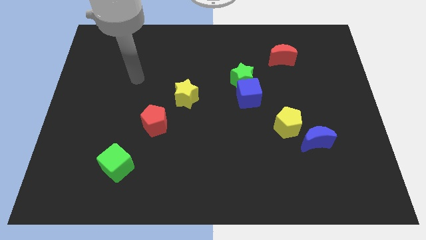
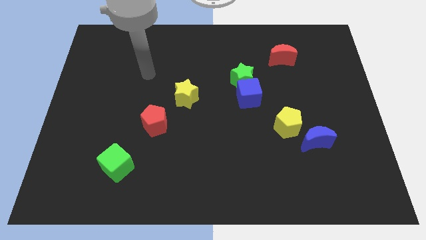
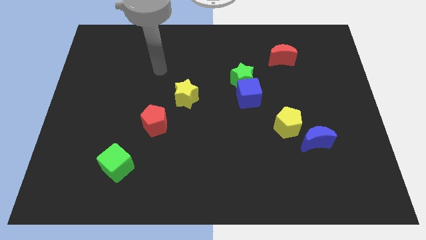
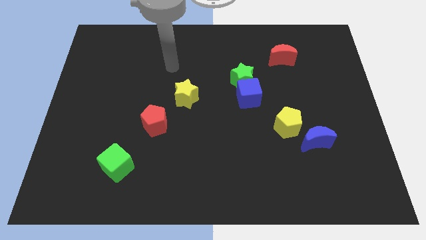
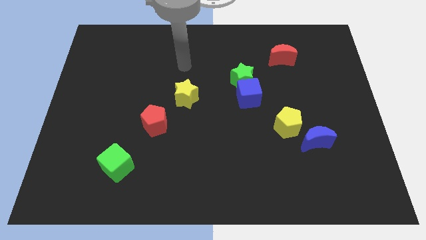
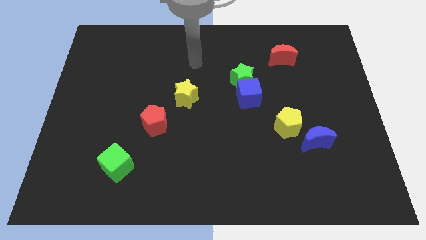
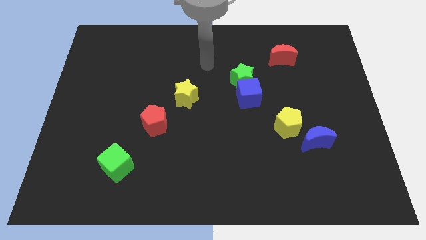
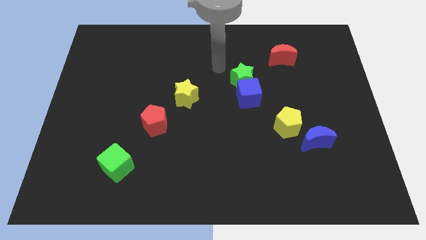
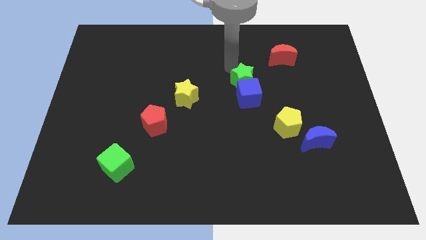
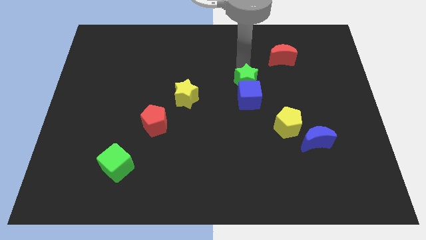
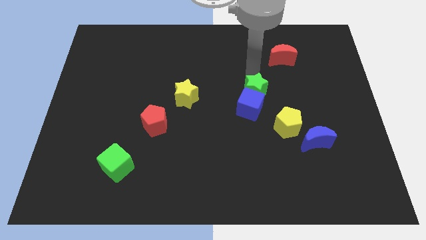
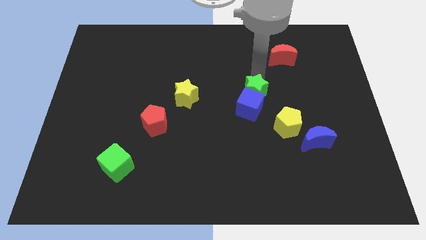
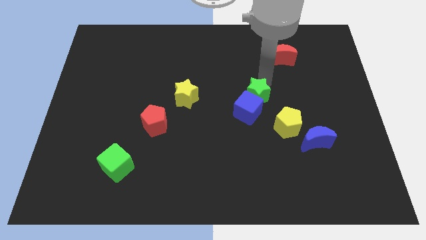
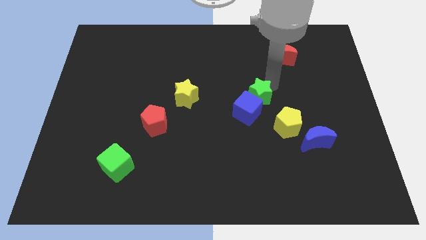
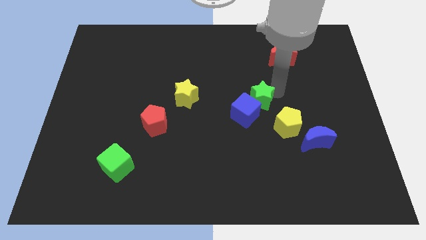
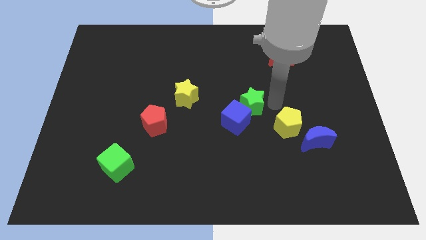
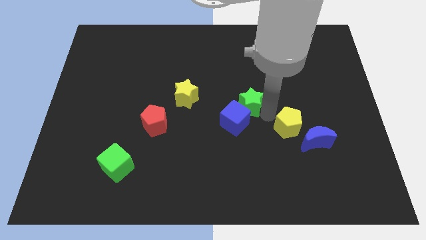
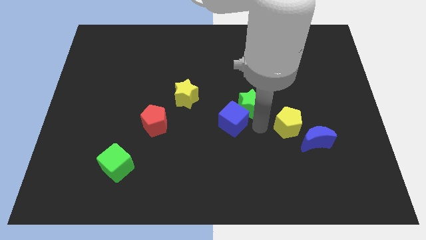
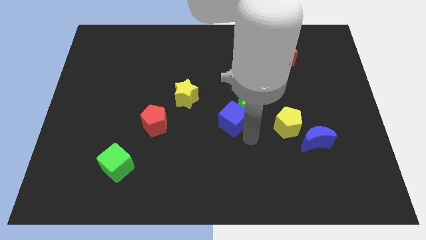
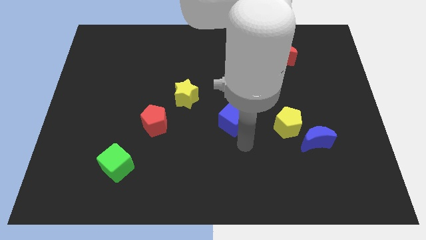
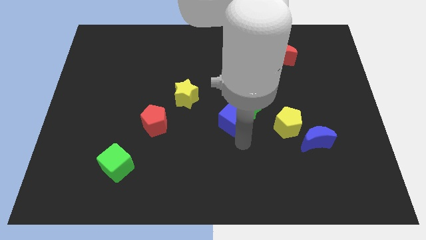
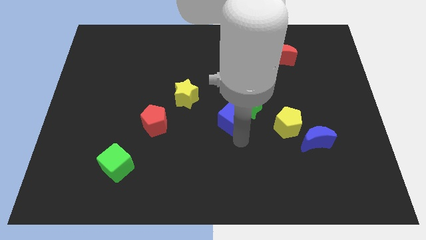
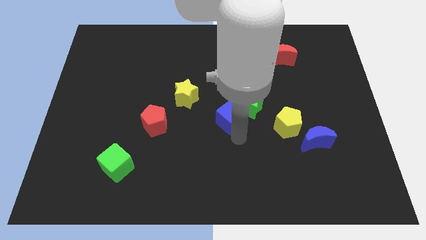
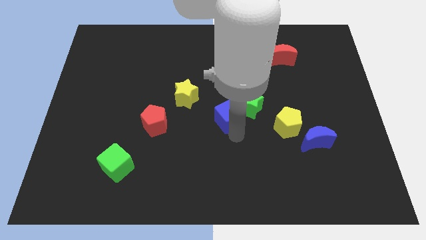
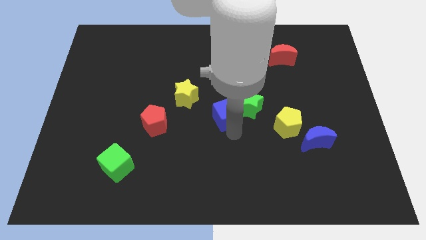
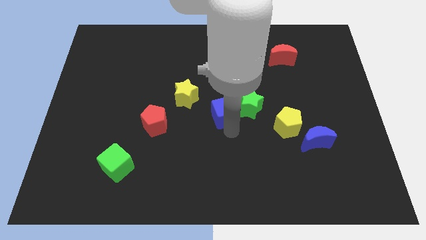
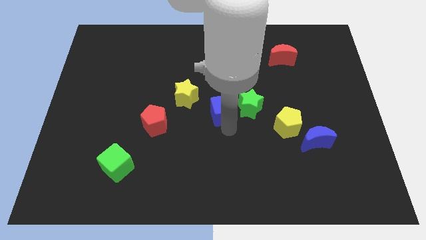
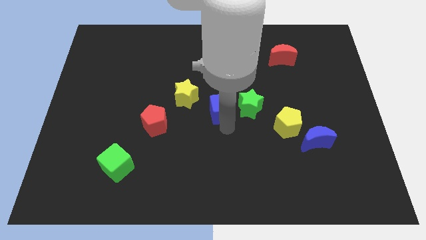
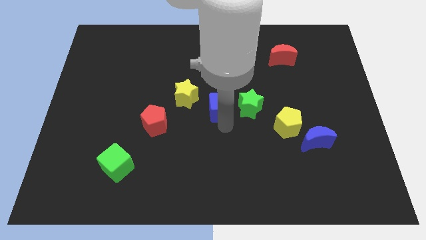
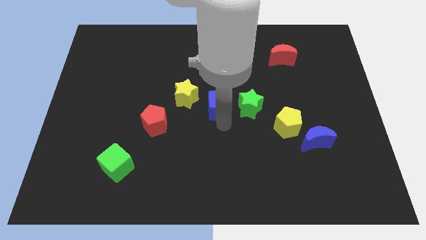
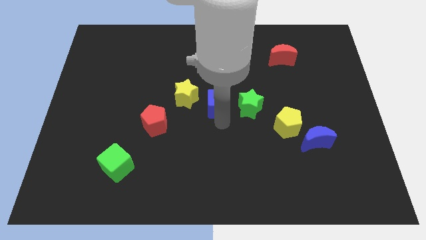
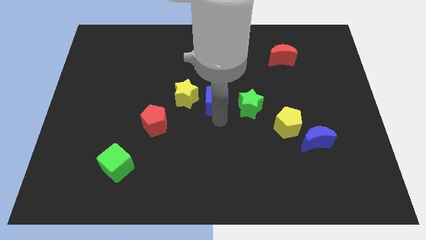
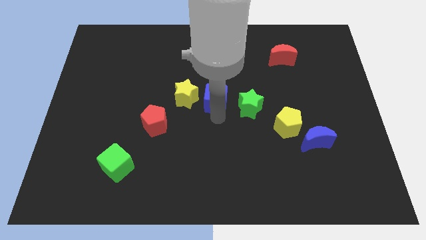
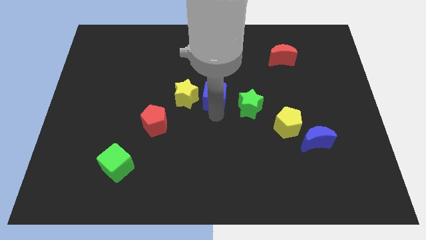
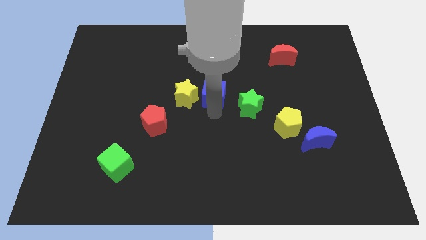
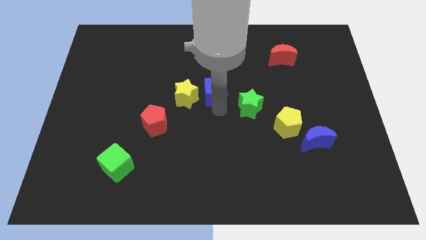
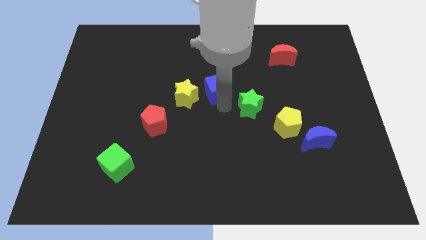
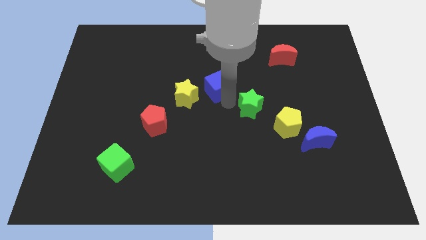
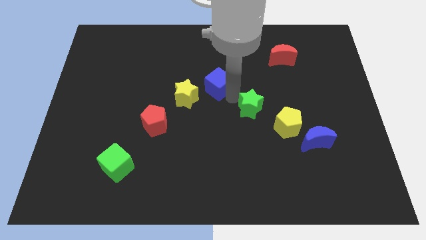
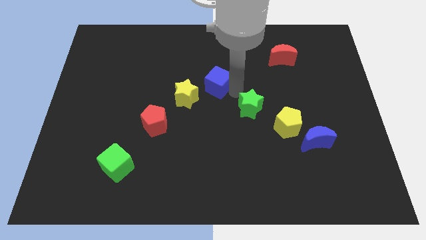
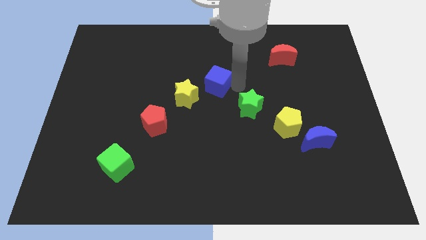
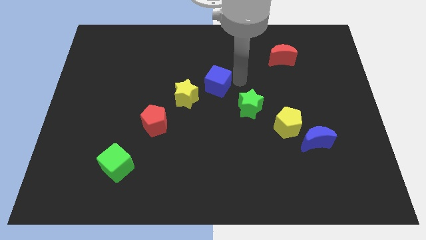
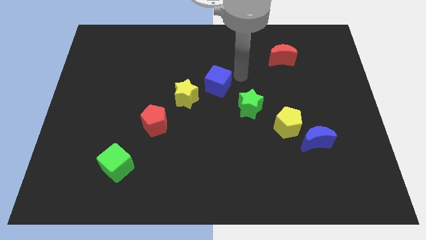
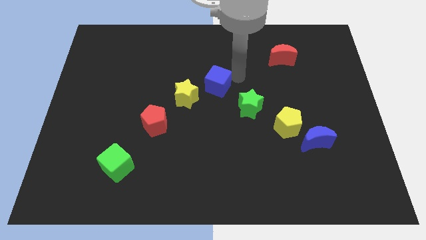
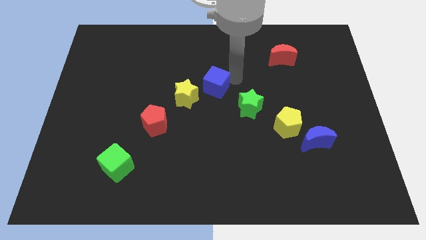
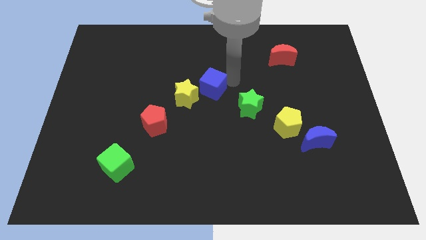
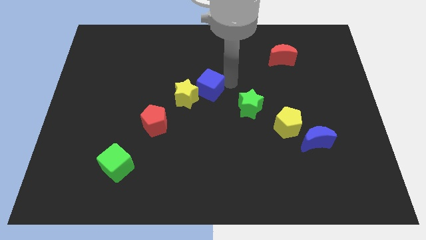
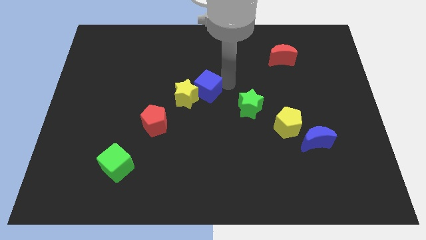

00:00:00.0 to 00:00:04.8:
put the blue cube towards the yellow star

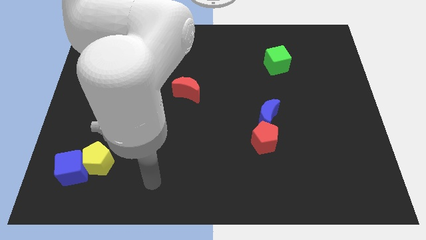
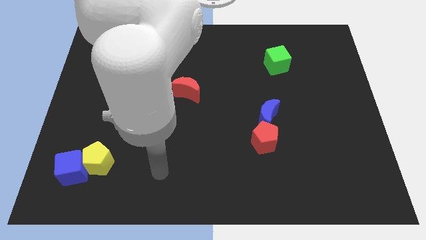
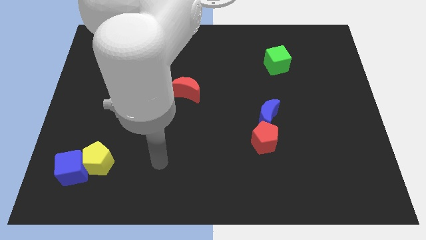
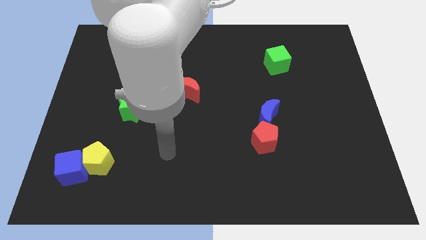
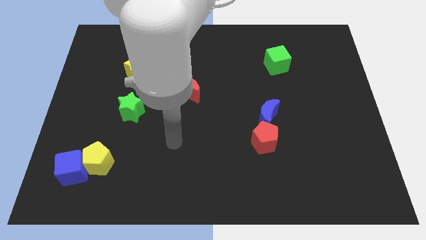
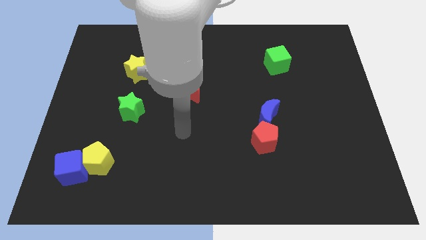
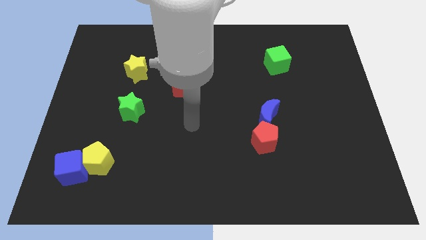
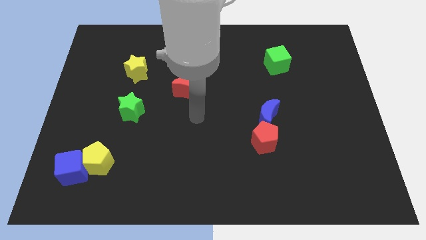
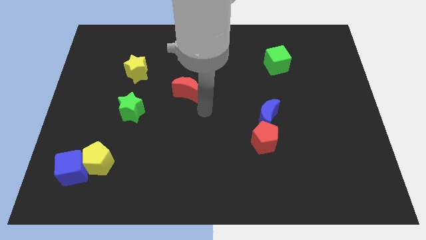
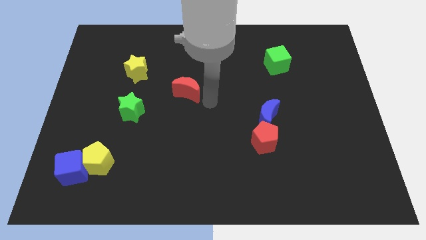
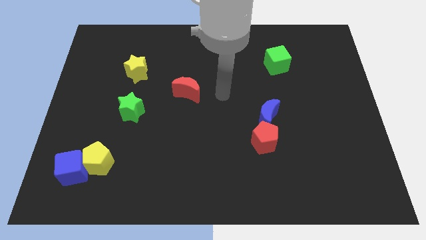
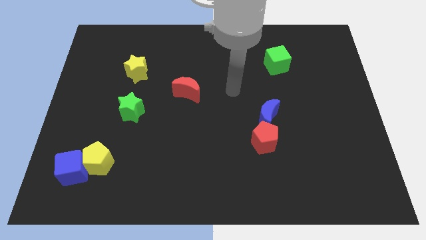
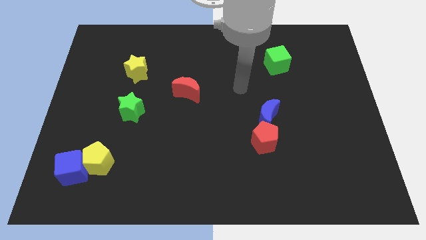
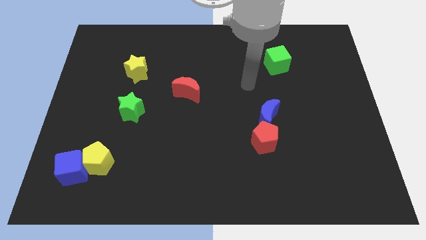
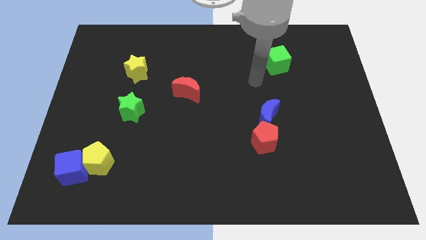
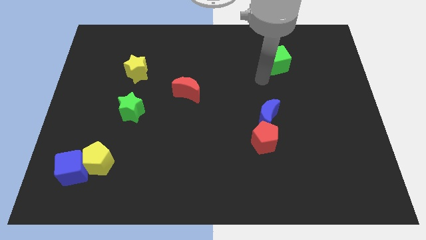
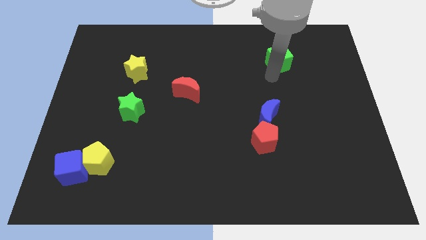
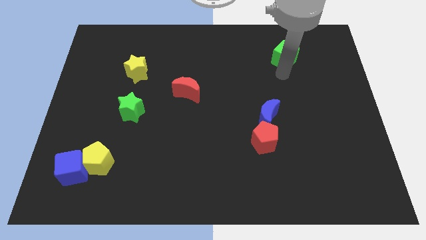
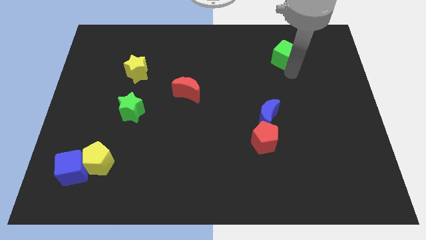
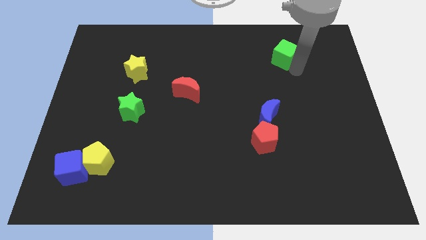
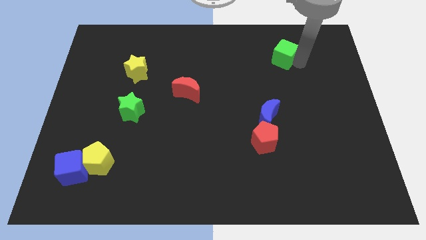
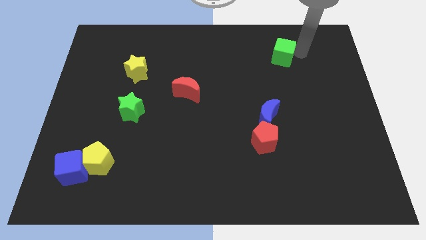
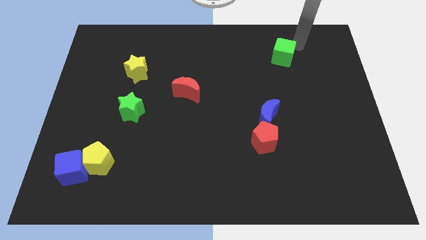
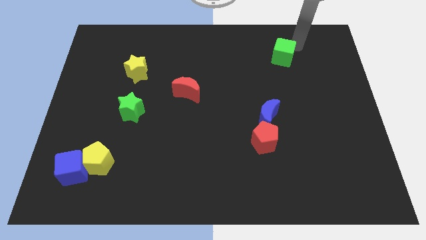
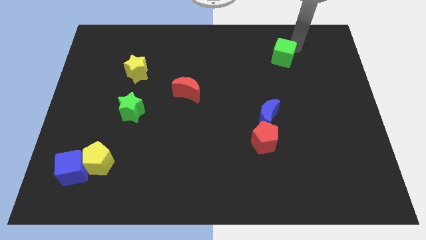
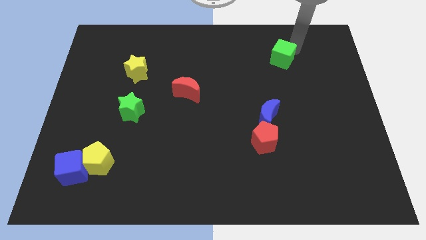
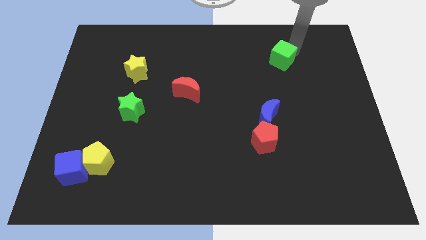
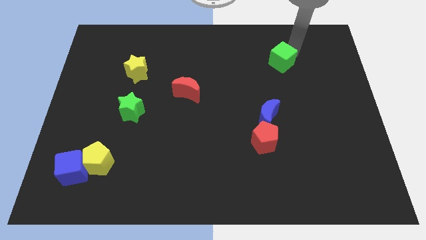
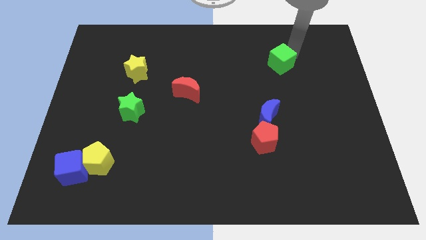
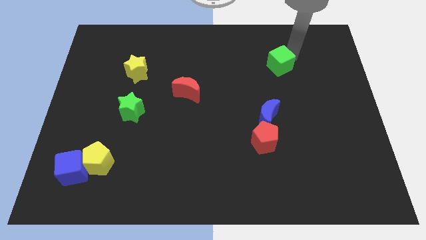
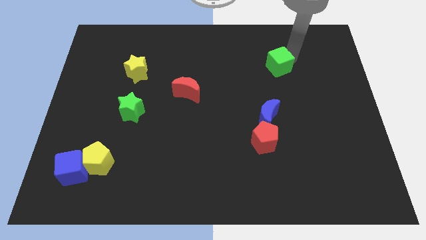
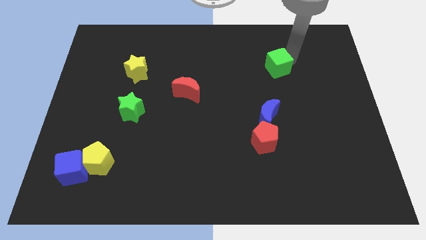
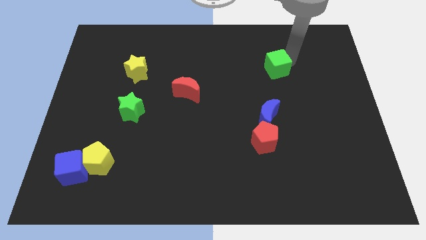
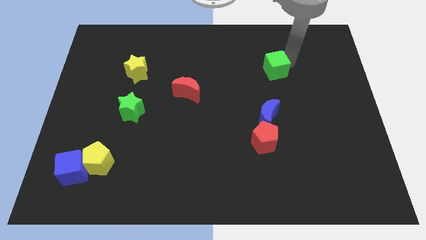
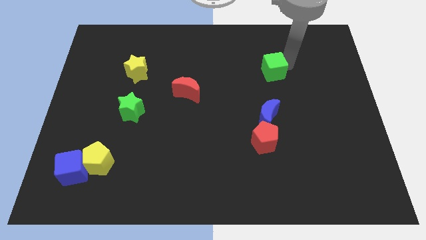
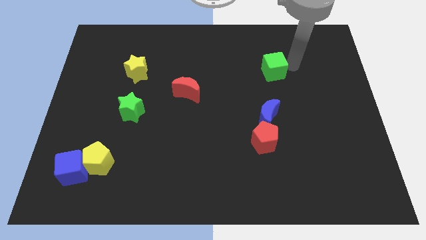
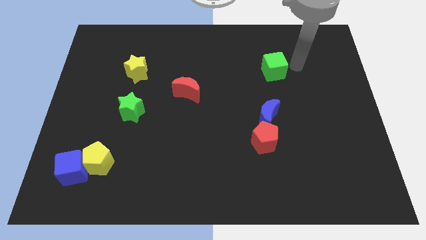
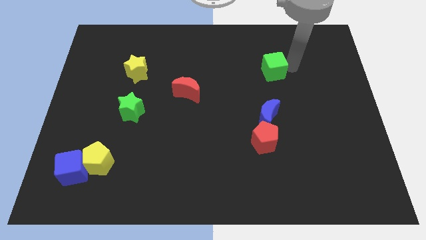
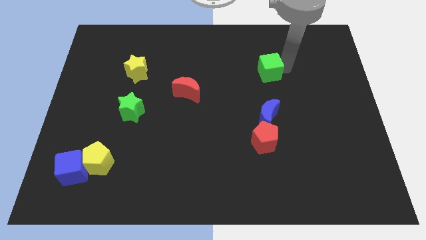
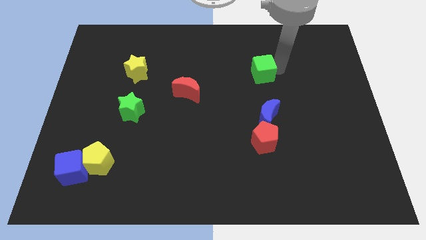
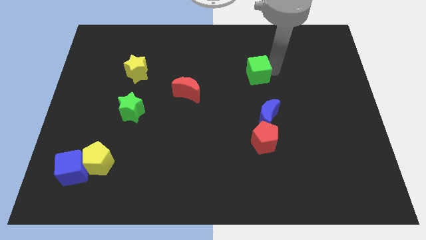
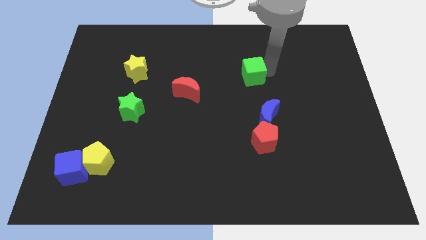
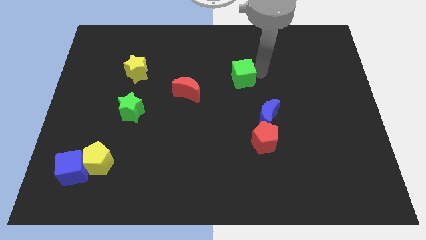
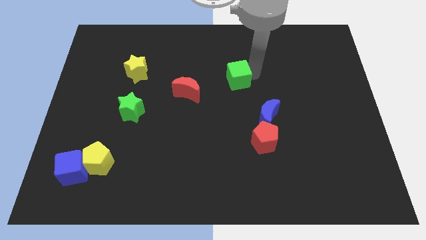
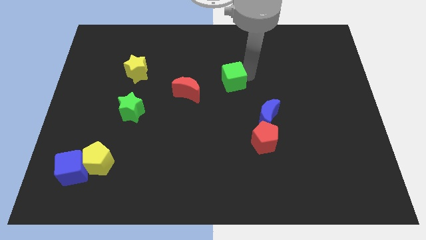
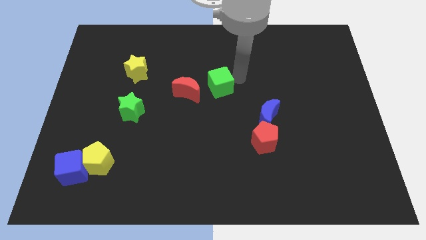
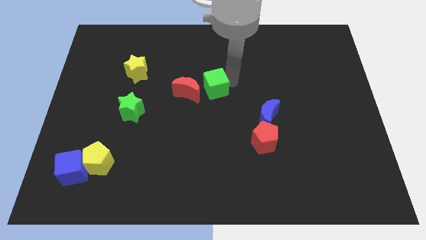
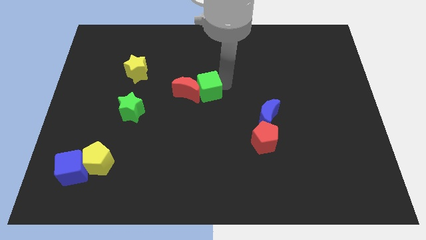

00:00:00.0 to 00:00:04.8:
slide the green cube towards the red moon
